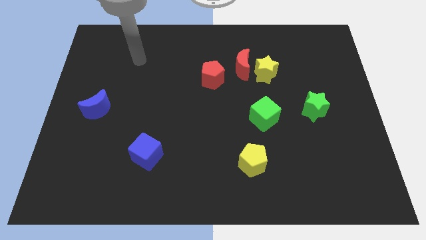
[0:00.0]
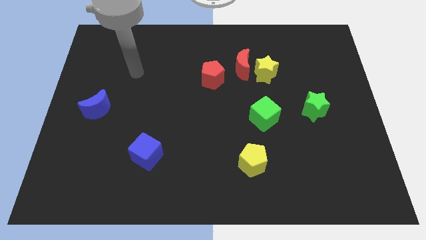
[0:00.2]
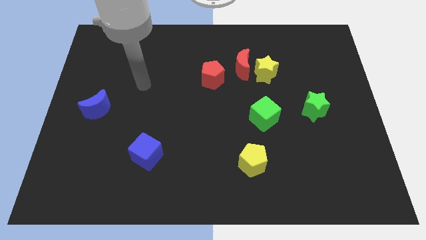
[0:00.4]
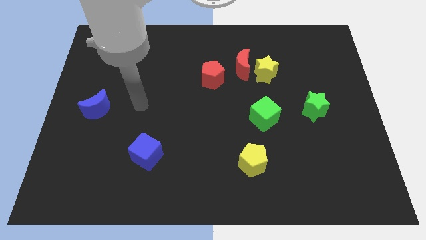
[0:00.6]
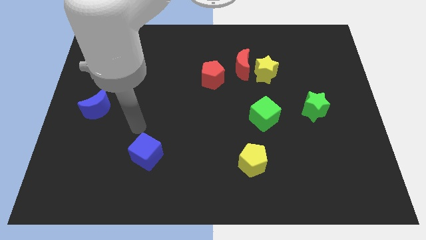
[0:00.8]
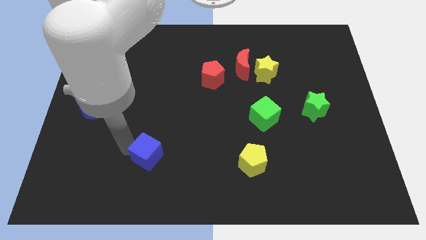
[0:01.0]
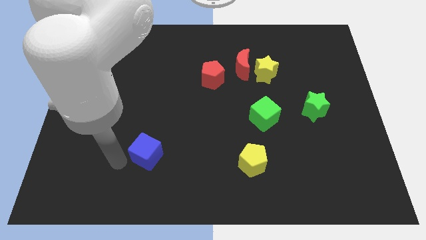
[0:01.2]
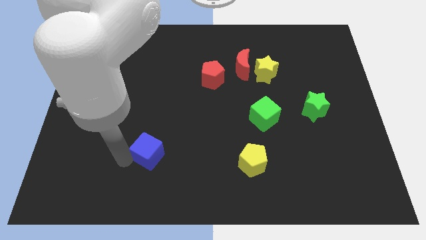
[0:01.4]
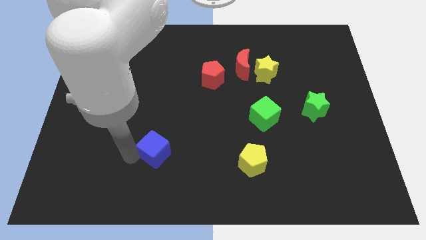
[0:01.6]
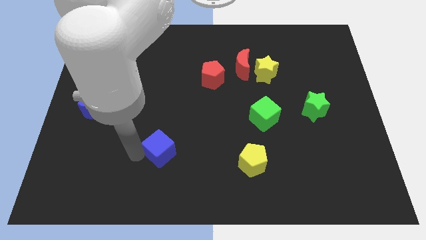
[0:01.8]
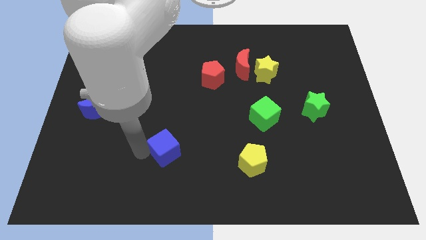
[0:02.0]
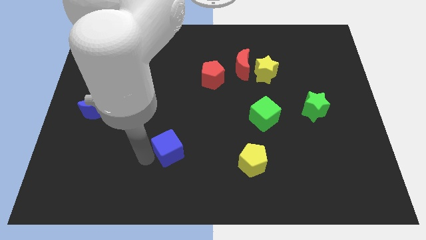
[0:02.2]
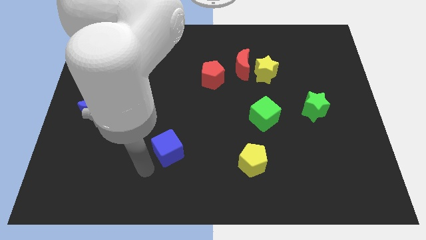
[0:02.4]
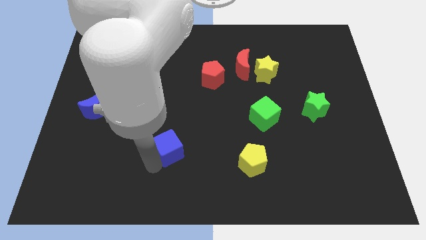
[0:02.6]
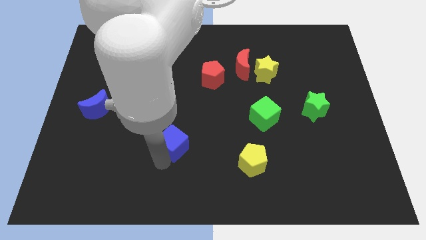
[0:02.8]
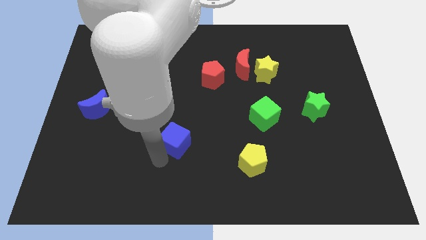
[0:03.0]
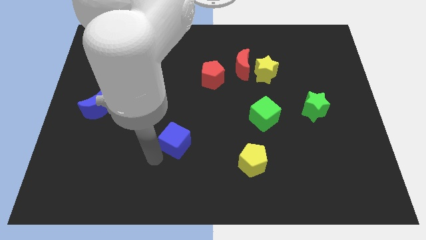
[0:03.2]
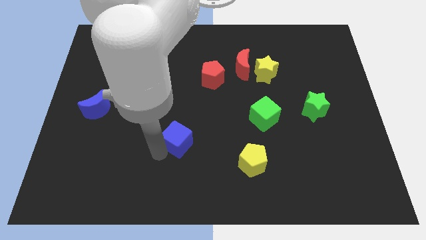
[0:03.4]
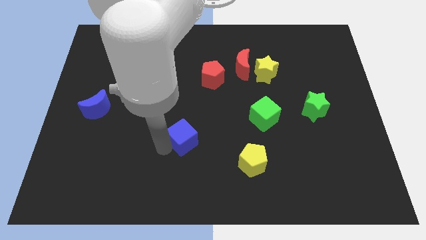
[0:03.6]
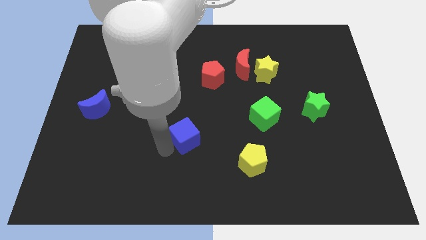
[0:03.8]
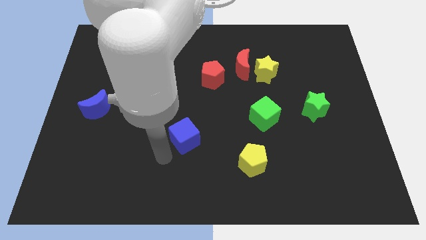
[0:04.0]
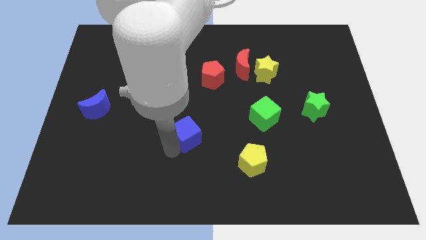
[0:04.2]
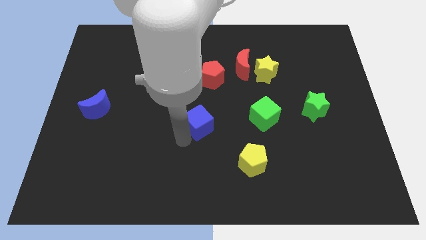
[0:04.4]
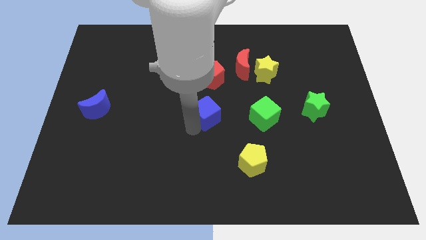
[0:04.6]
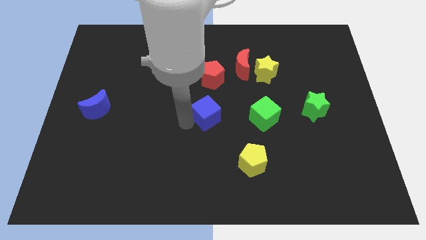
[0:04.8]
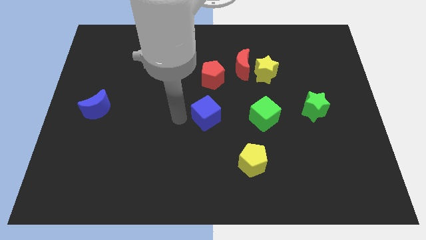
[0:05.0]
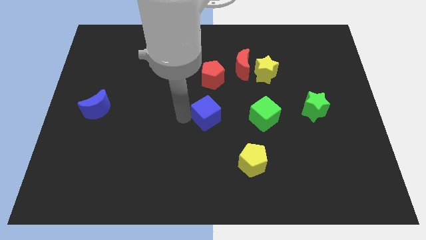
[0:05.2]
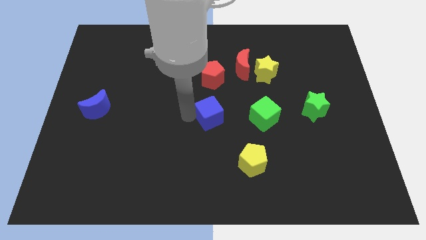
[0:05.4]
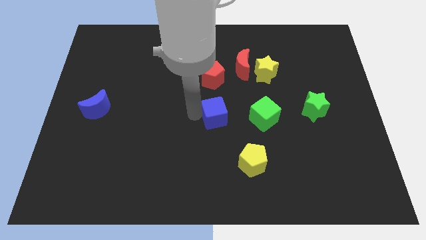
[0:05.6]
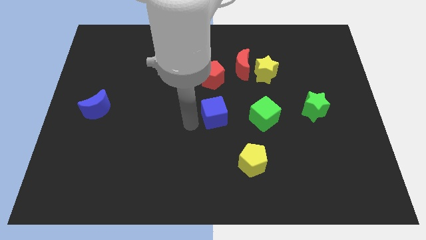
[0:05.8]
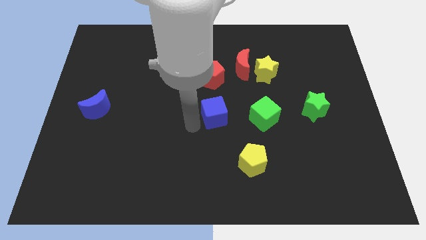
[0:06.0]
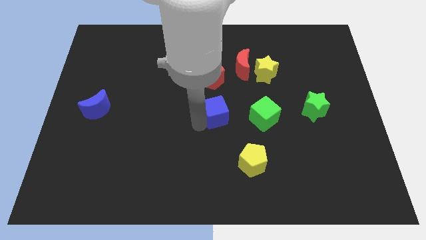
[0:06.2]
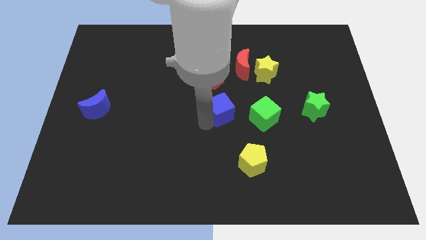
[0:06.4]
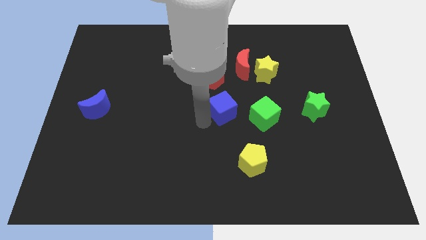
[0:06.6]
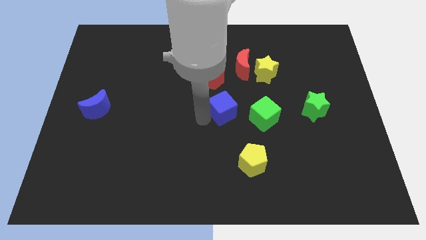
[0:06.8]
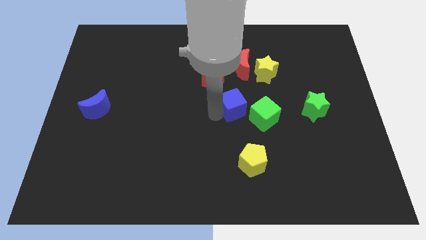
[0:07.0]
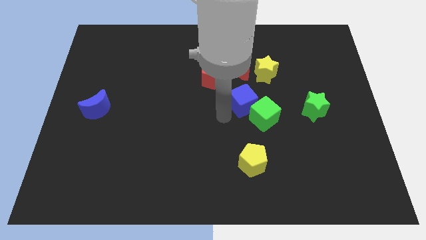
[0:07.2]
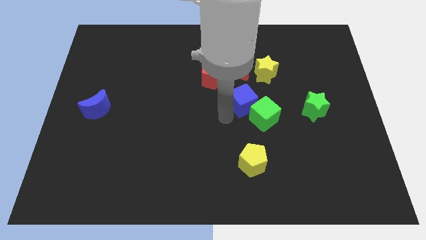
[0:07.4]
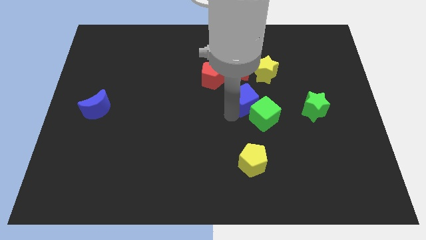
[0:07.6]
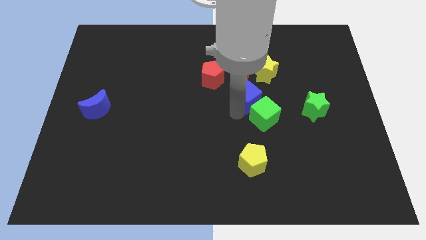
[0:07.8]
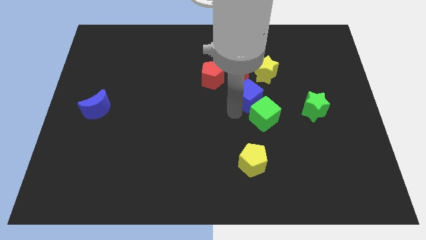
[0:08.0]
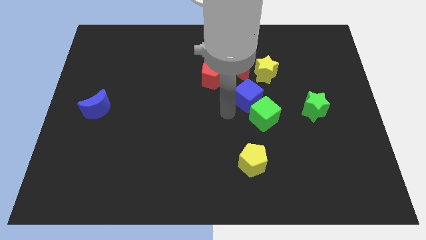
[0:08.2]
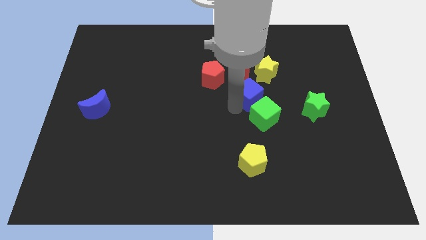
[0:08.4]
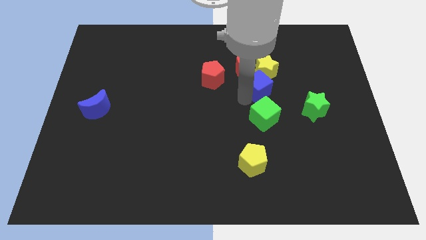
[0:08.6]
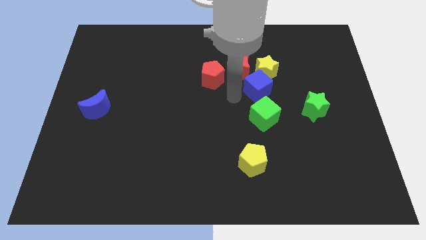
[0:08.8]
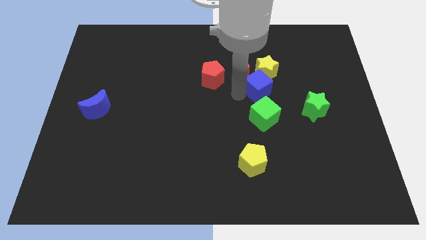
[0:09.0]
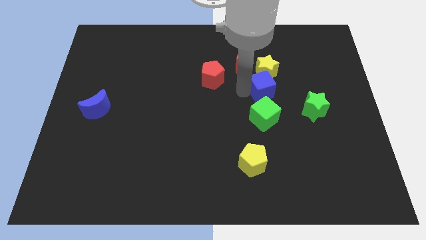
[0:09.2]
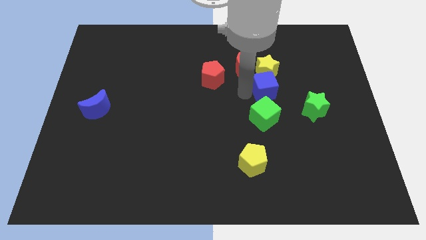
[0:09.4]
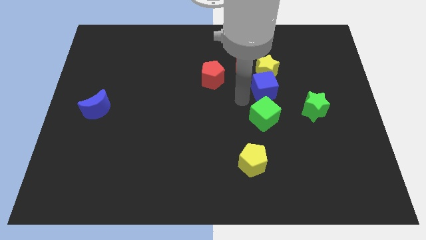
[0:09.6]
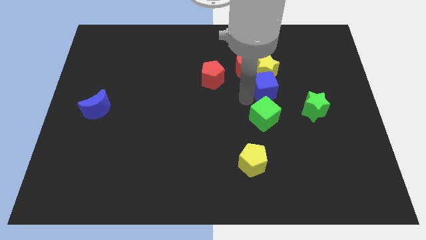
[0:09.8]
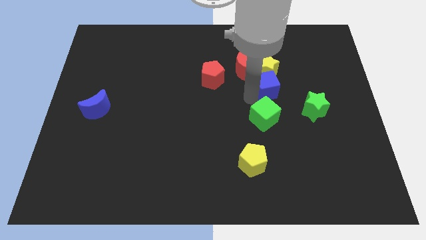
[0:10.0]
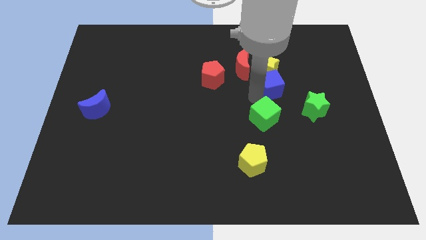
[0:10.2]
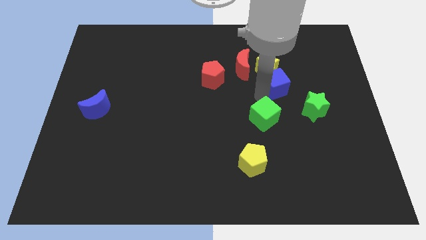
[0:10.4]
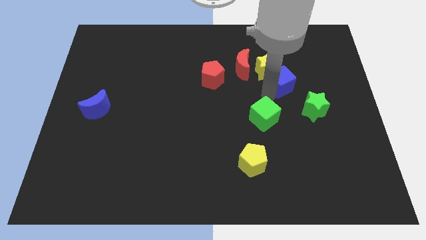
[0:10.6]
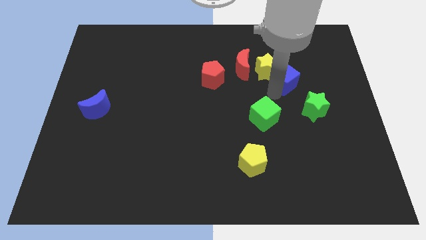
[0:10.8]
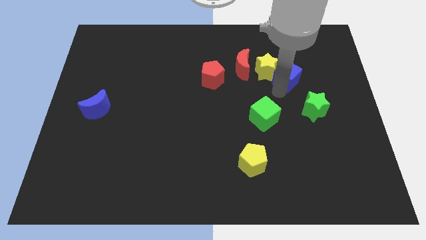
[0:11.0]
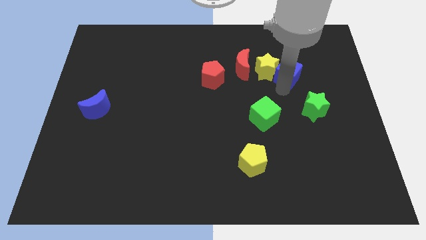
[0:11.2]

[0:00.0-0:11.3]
put the blue cube diagonally up and to the right of the yellow star

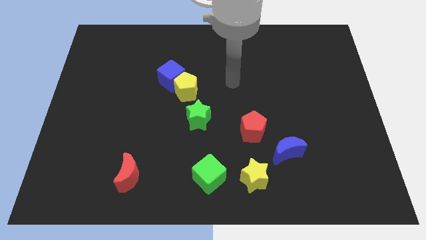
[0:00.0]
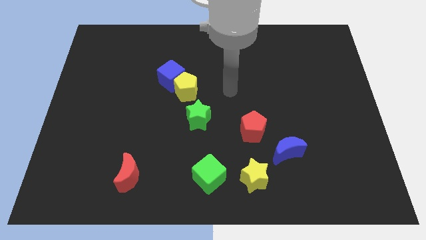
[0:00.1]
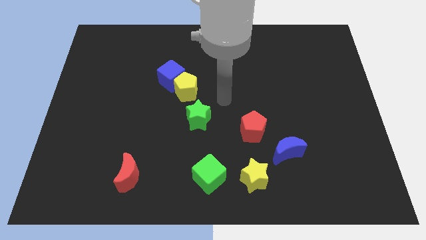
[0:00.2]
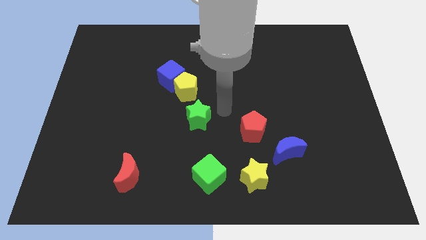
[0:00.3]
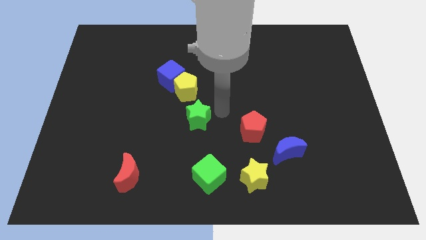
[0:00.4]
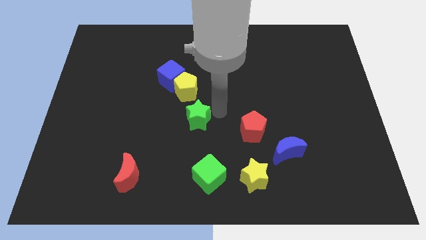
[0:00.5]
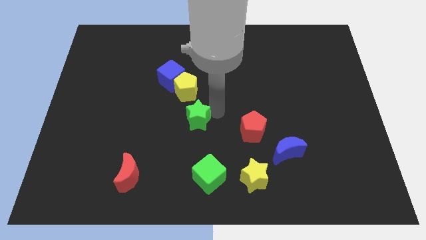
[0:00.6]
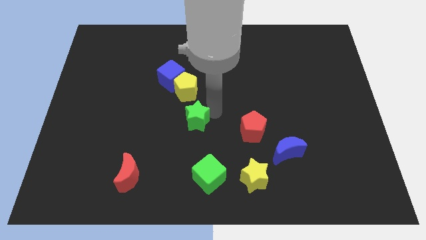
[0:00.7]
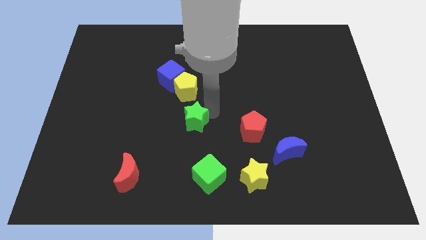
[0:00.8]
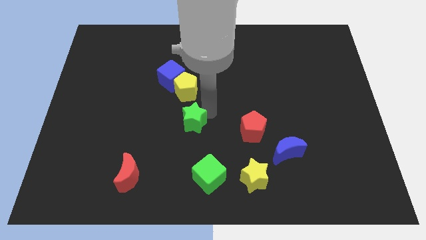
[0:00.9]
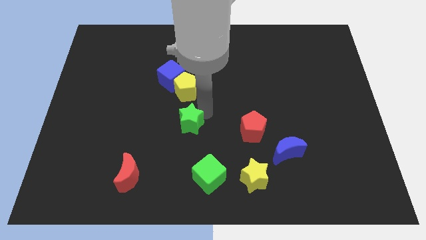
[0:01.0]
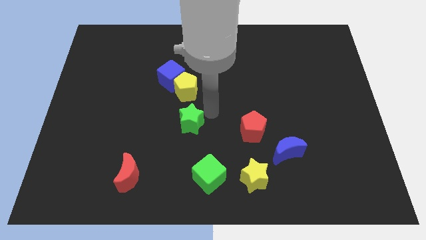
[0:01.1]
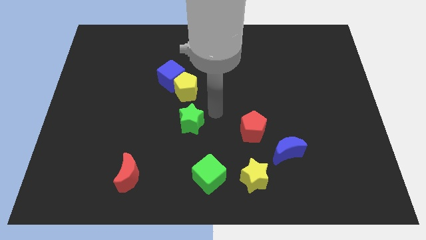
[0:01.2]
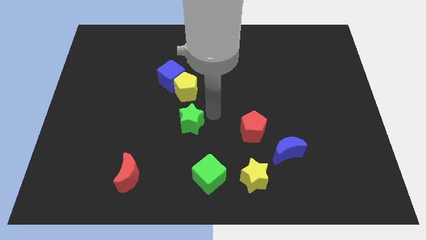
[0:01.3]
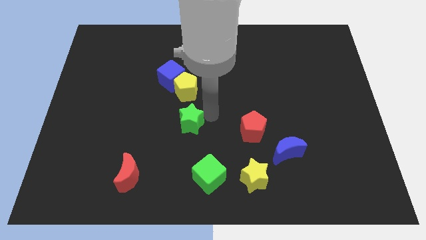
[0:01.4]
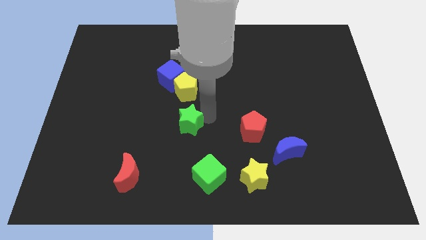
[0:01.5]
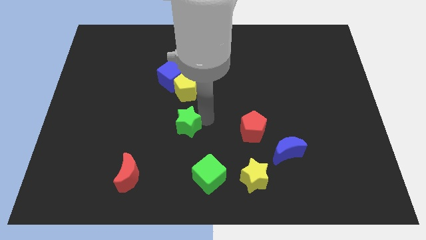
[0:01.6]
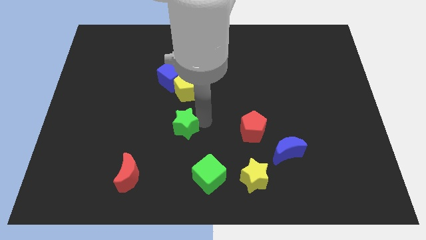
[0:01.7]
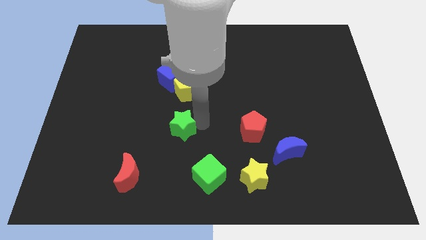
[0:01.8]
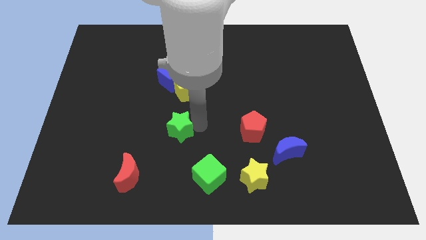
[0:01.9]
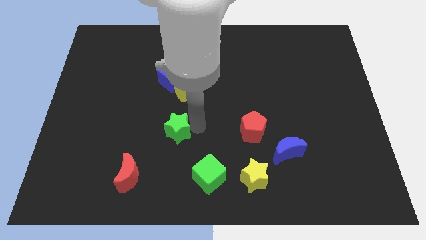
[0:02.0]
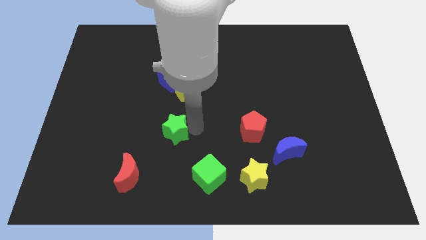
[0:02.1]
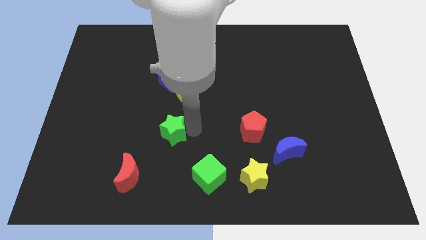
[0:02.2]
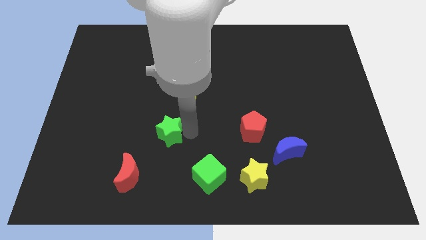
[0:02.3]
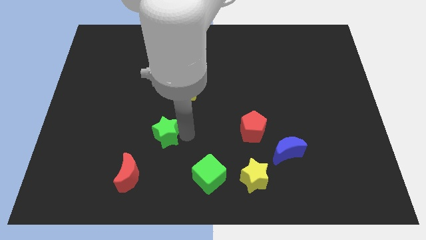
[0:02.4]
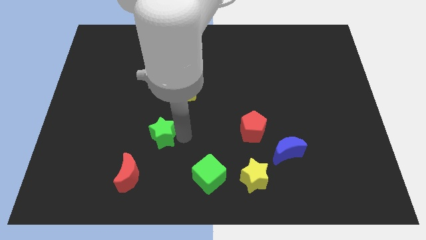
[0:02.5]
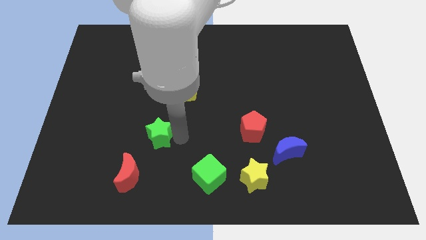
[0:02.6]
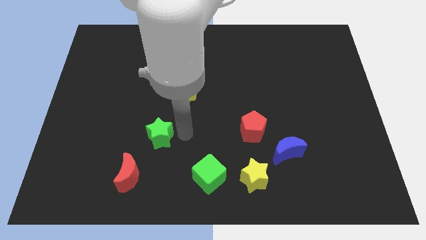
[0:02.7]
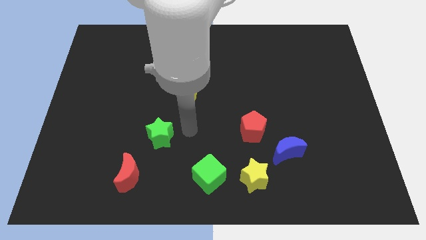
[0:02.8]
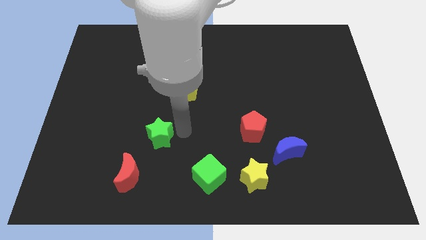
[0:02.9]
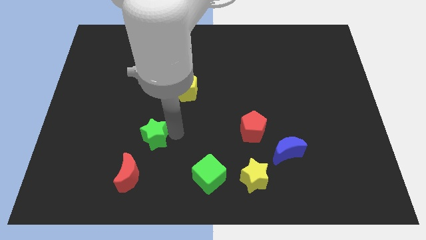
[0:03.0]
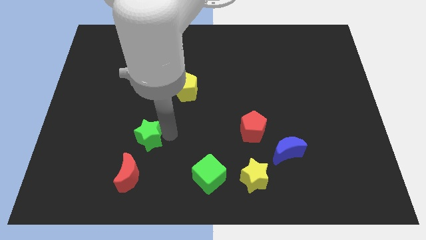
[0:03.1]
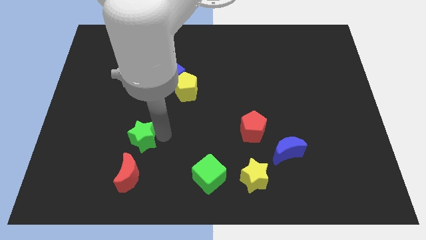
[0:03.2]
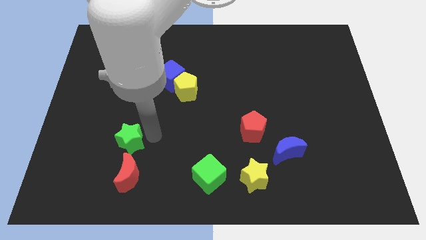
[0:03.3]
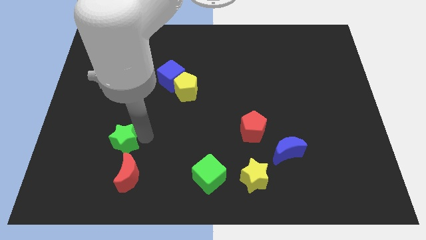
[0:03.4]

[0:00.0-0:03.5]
move the green star to the top left of the red moon
